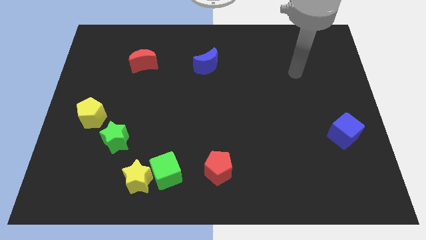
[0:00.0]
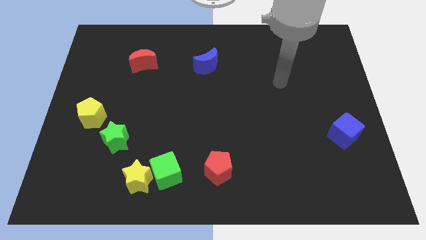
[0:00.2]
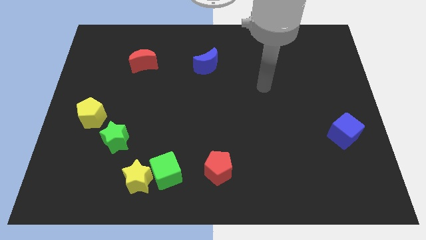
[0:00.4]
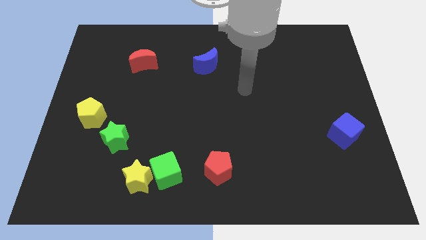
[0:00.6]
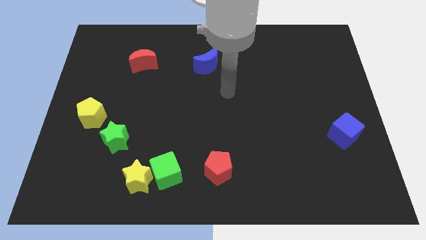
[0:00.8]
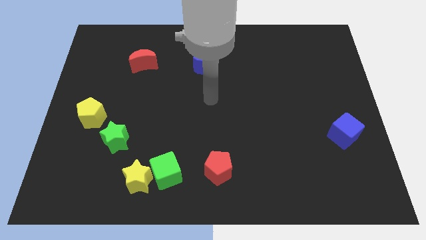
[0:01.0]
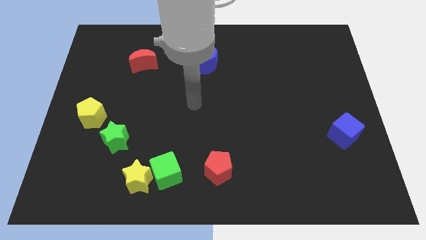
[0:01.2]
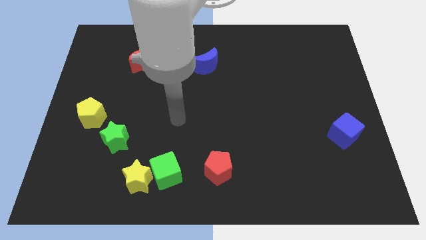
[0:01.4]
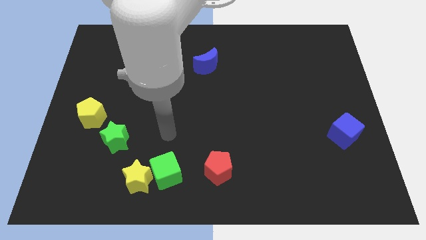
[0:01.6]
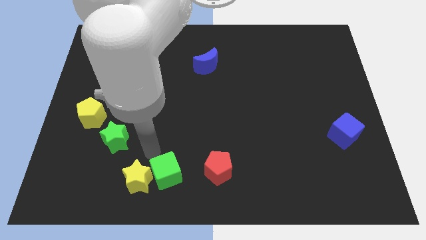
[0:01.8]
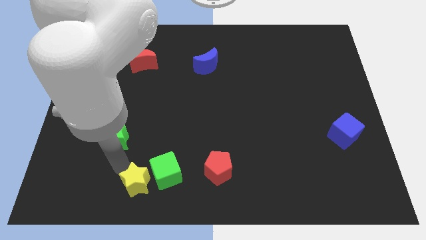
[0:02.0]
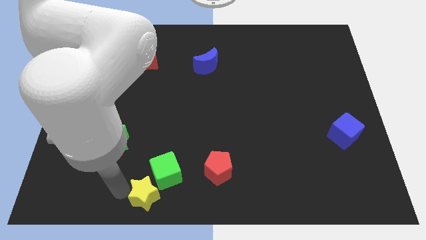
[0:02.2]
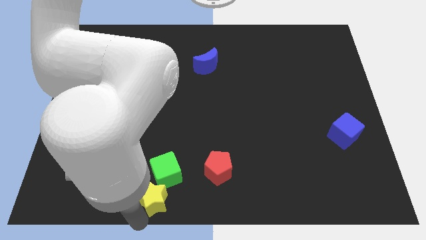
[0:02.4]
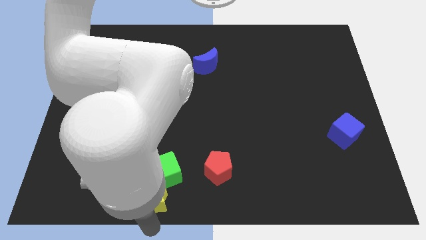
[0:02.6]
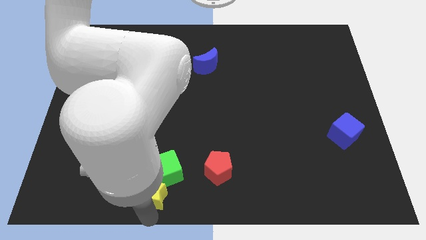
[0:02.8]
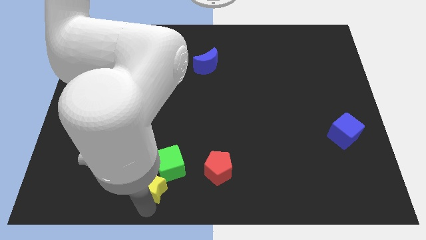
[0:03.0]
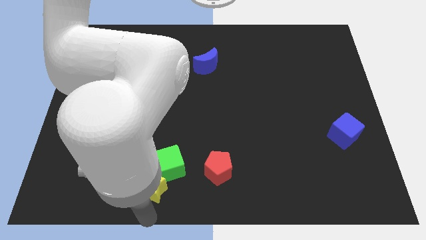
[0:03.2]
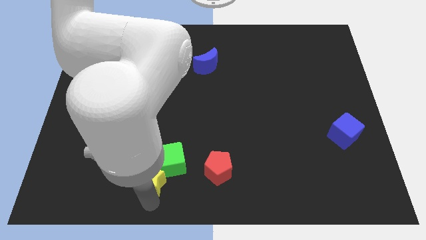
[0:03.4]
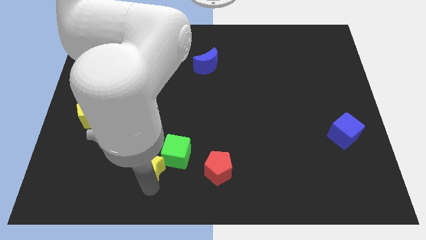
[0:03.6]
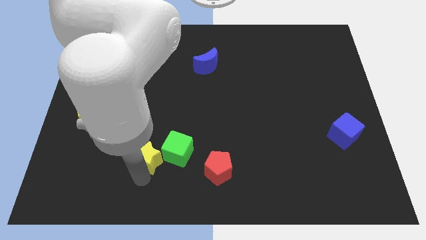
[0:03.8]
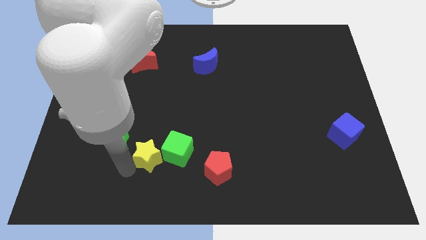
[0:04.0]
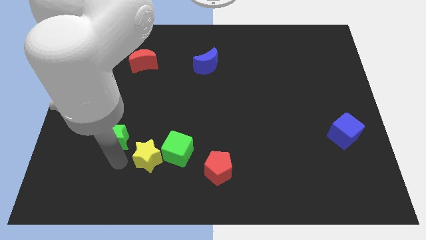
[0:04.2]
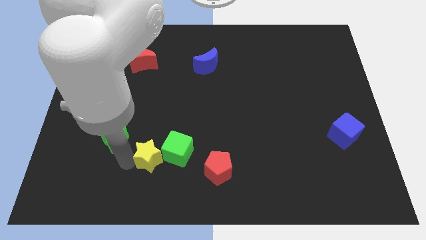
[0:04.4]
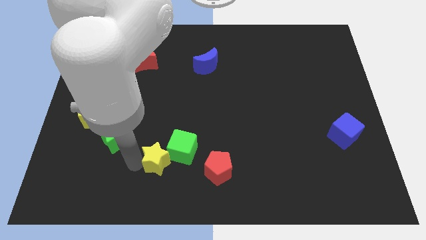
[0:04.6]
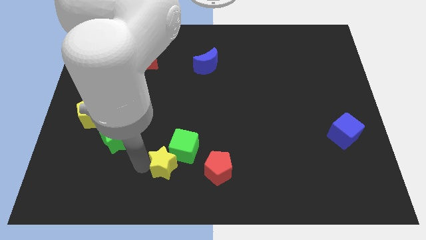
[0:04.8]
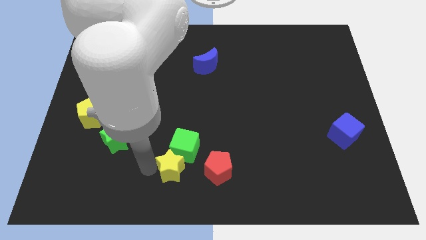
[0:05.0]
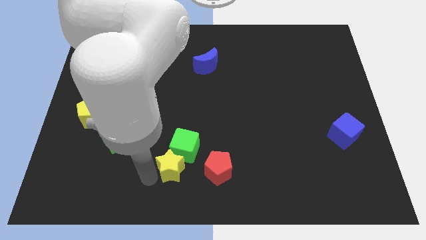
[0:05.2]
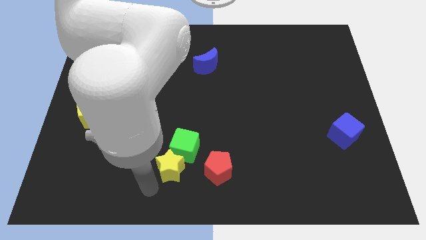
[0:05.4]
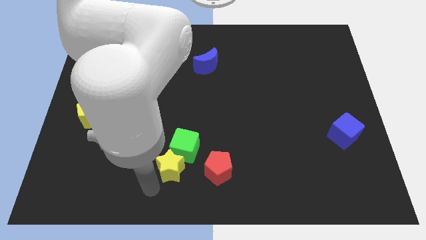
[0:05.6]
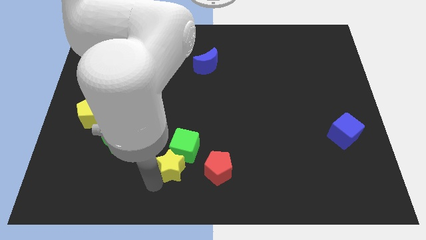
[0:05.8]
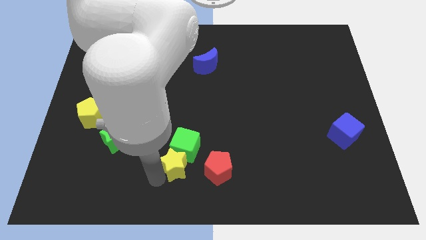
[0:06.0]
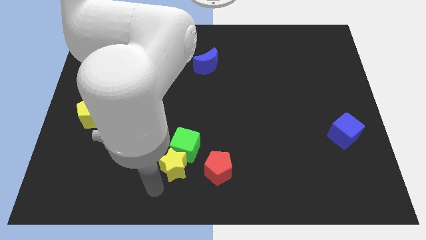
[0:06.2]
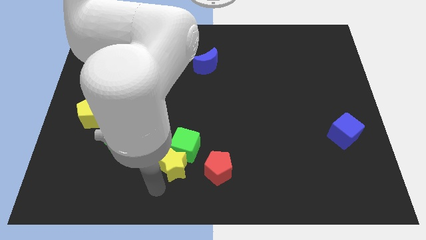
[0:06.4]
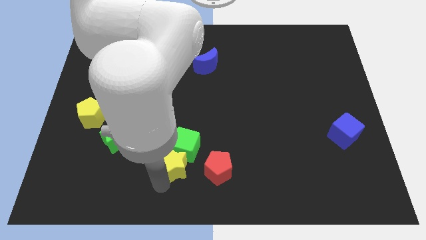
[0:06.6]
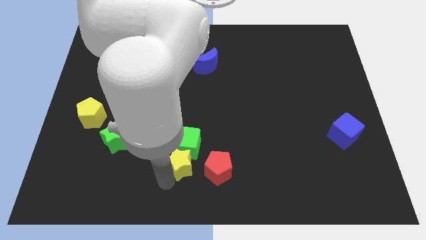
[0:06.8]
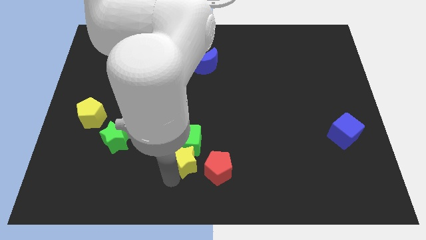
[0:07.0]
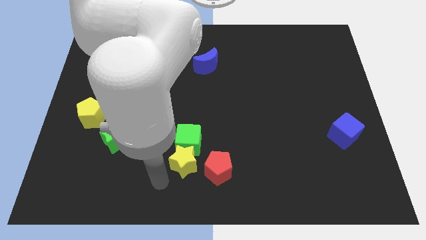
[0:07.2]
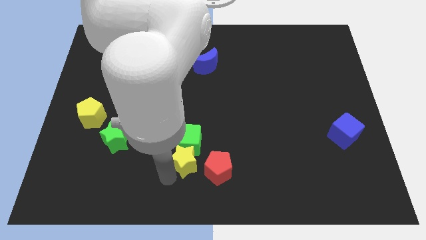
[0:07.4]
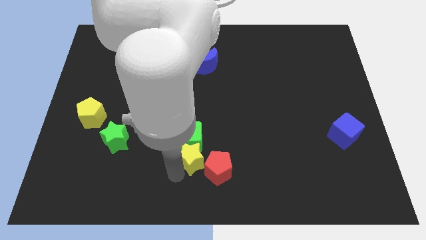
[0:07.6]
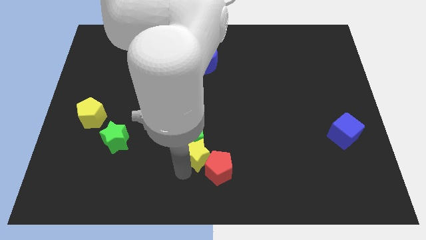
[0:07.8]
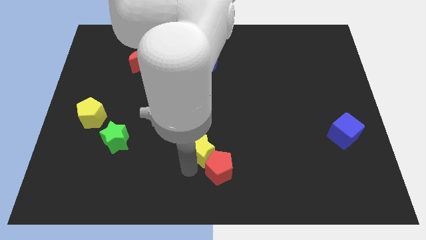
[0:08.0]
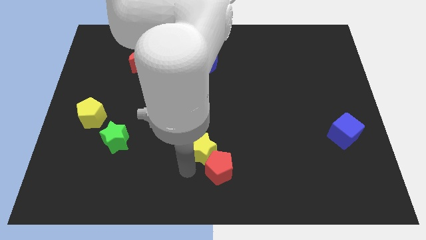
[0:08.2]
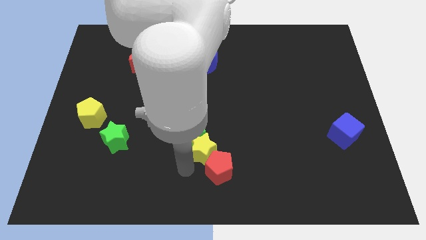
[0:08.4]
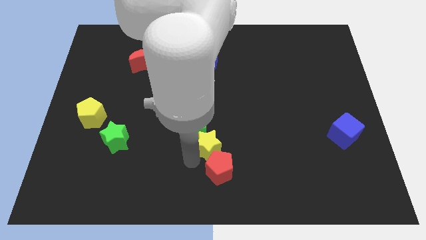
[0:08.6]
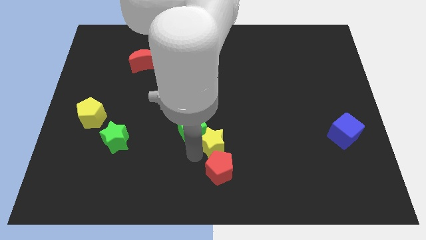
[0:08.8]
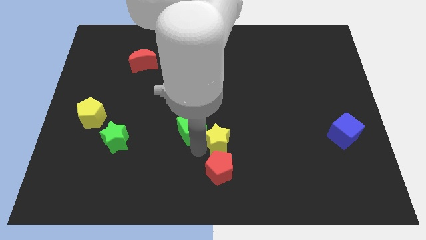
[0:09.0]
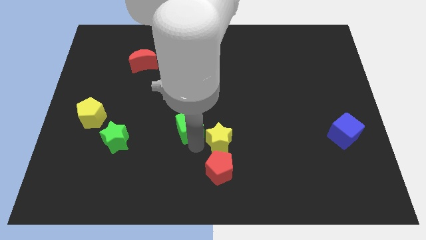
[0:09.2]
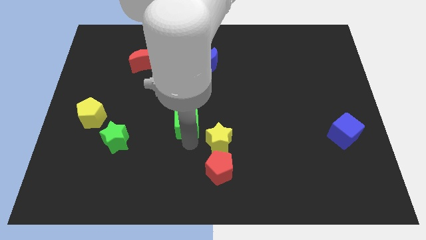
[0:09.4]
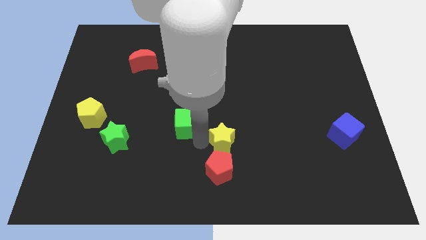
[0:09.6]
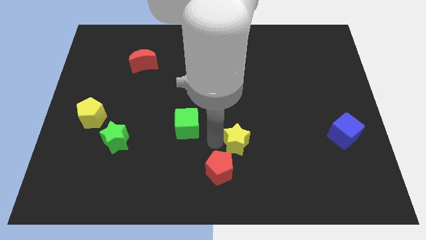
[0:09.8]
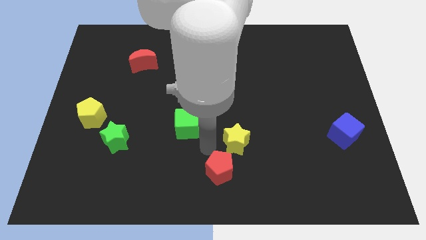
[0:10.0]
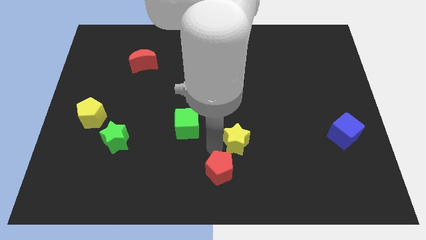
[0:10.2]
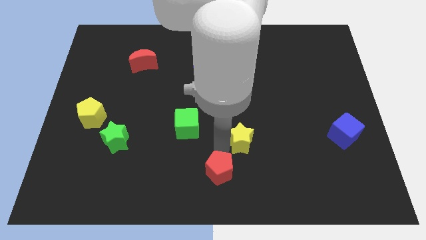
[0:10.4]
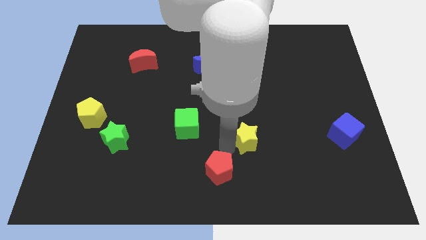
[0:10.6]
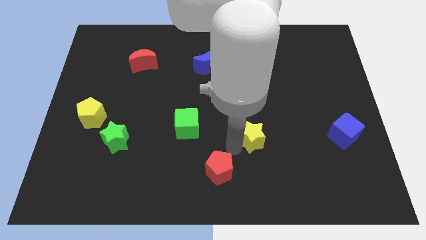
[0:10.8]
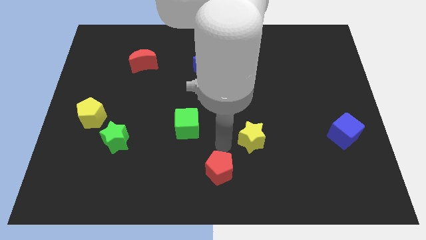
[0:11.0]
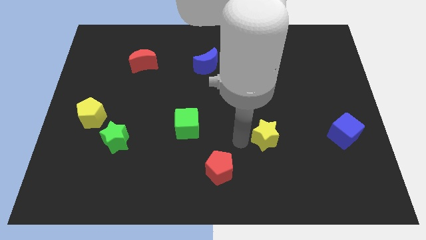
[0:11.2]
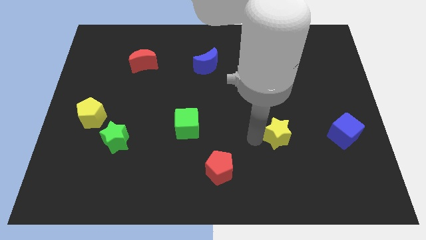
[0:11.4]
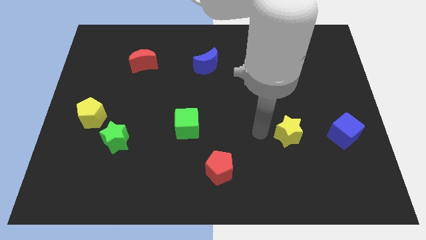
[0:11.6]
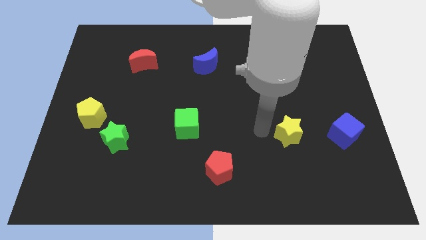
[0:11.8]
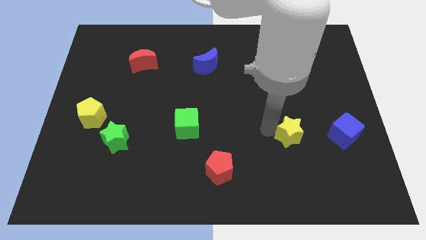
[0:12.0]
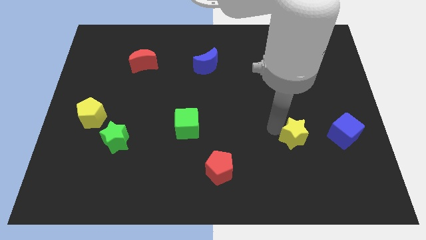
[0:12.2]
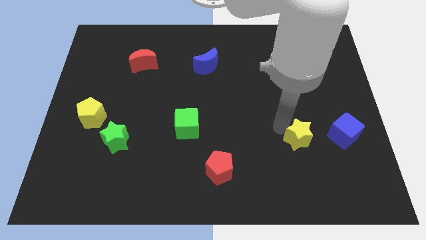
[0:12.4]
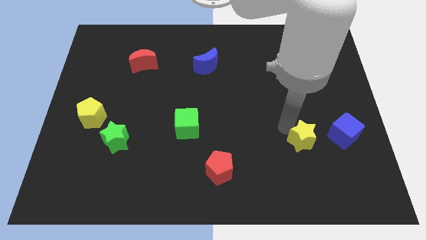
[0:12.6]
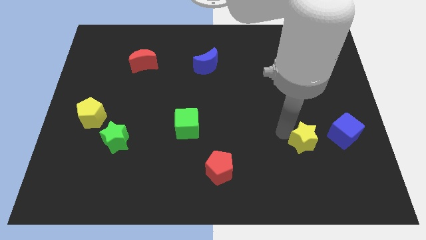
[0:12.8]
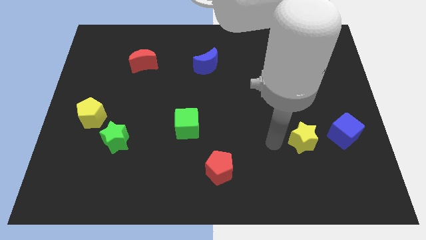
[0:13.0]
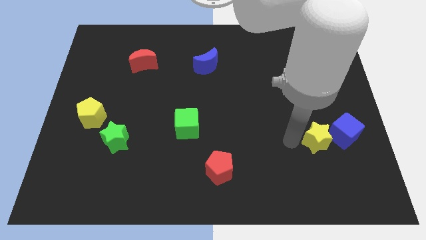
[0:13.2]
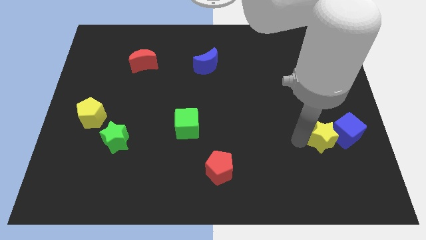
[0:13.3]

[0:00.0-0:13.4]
push the yellow star towards the blue cube
